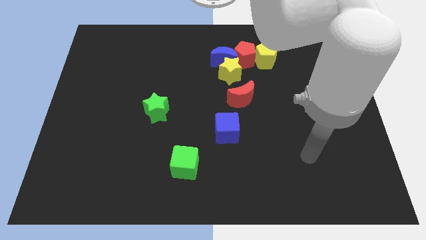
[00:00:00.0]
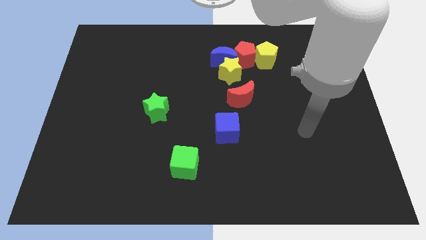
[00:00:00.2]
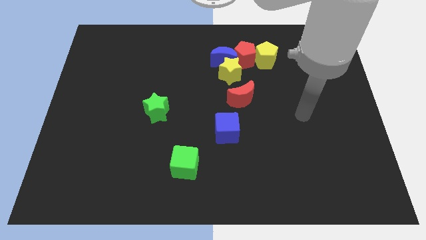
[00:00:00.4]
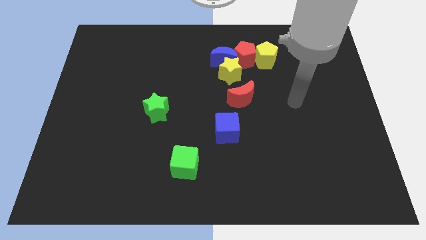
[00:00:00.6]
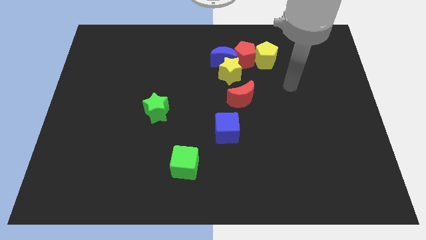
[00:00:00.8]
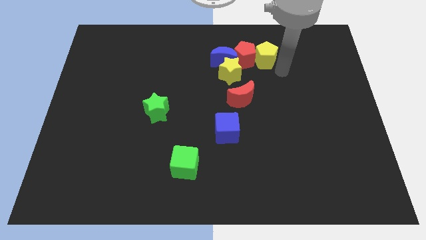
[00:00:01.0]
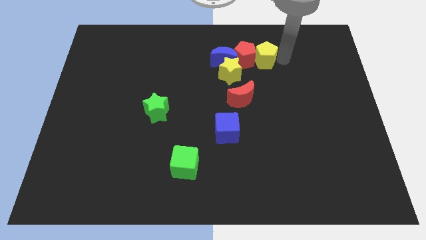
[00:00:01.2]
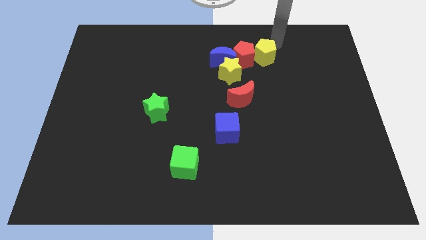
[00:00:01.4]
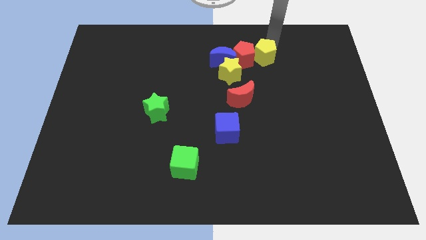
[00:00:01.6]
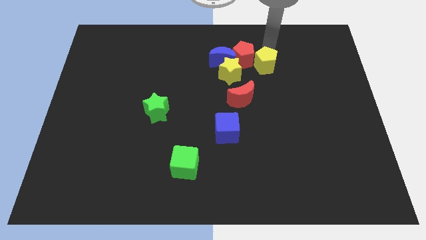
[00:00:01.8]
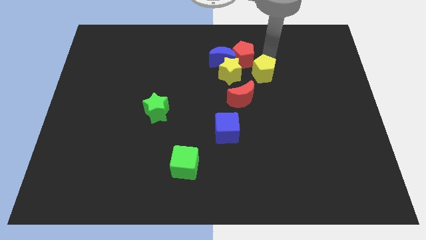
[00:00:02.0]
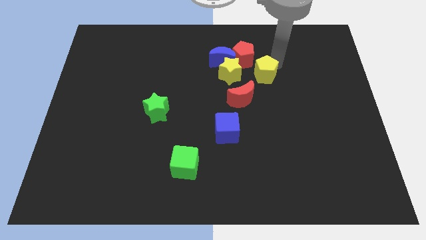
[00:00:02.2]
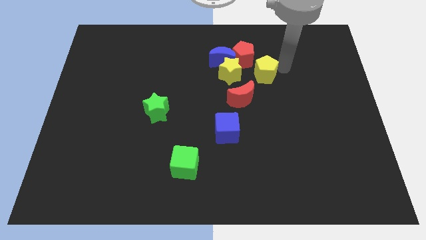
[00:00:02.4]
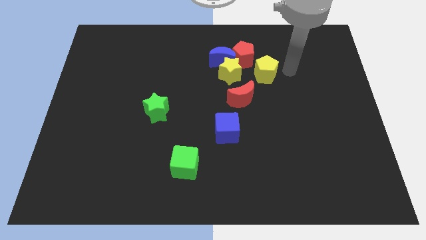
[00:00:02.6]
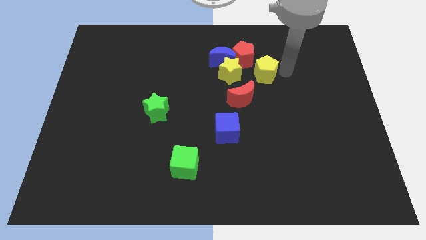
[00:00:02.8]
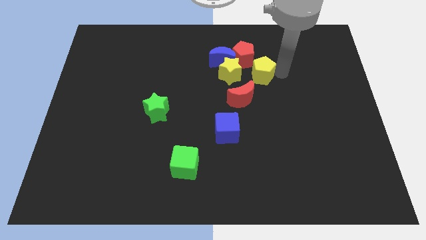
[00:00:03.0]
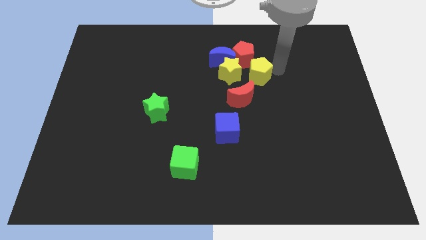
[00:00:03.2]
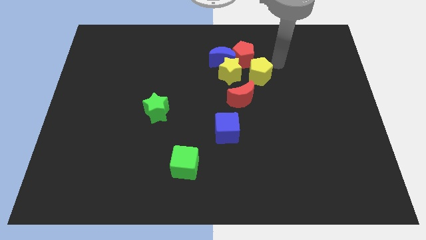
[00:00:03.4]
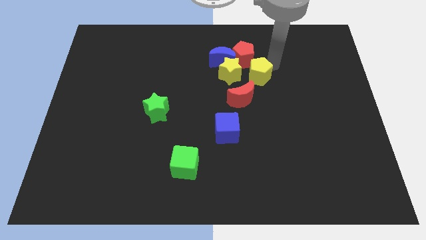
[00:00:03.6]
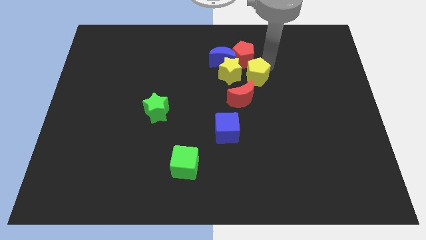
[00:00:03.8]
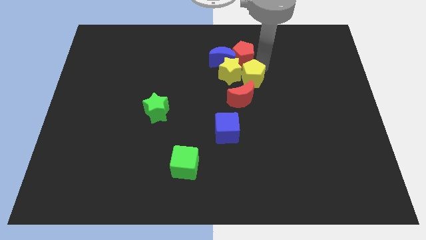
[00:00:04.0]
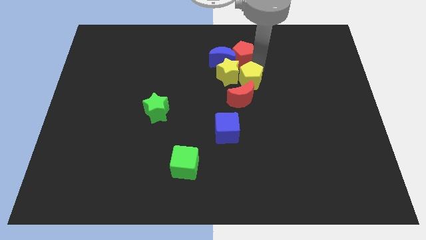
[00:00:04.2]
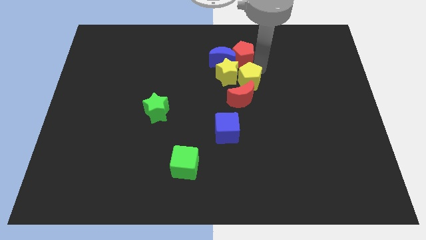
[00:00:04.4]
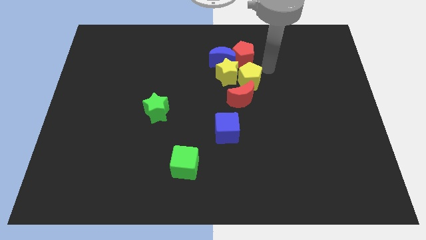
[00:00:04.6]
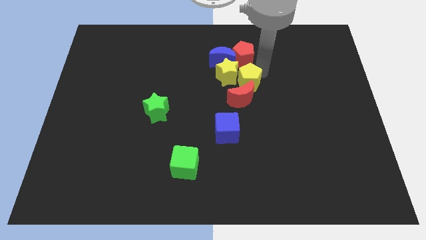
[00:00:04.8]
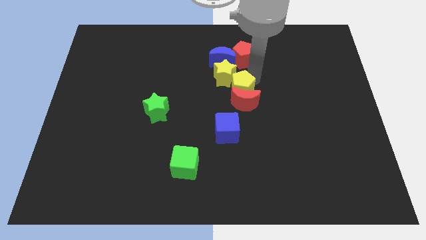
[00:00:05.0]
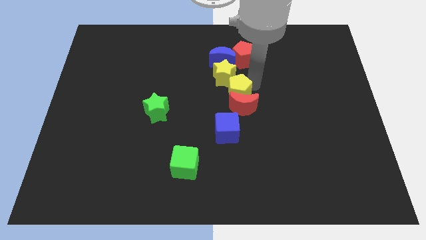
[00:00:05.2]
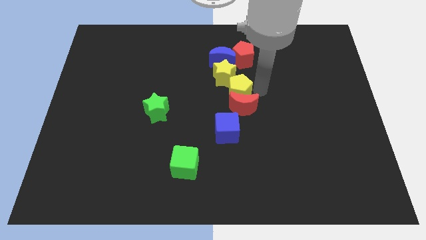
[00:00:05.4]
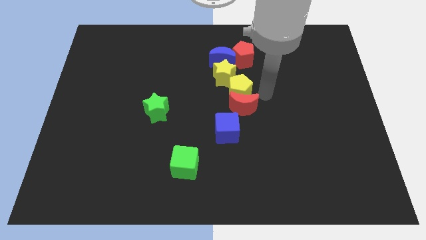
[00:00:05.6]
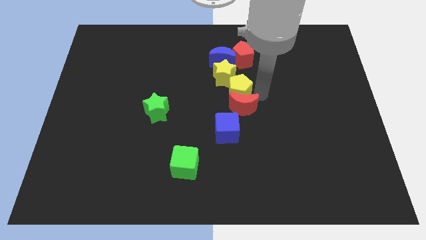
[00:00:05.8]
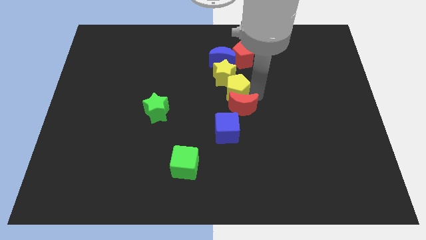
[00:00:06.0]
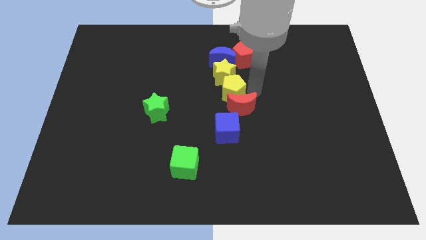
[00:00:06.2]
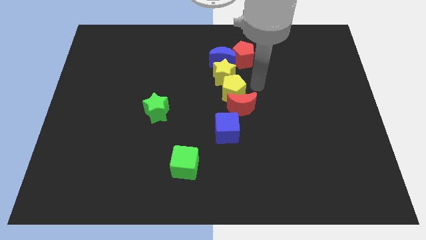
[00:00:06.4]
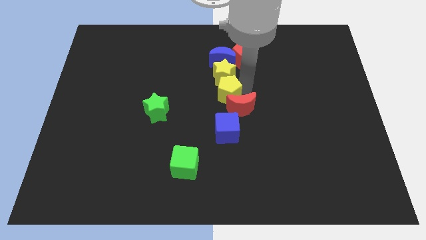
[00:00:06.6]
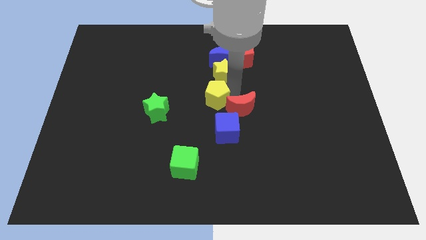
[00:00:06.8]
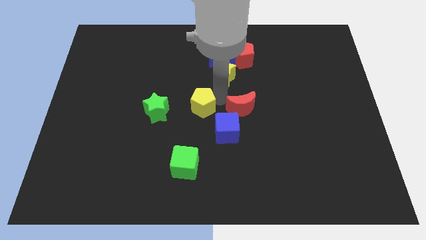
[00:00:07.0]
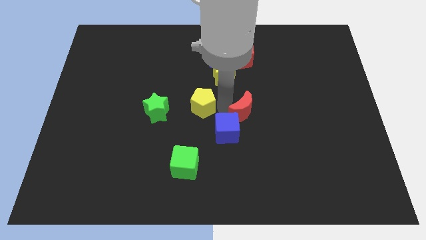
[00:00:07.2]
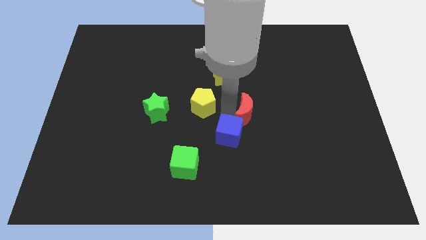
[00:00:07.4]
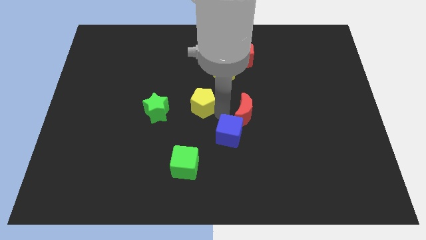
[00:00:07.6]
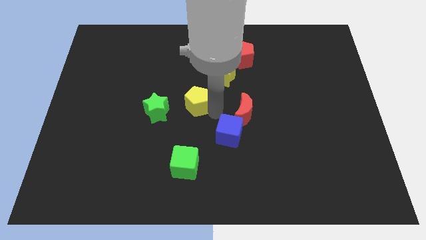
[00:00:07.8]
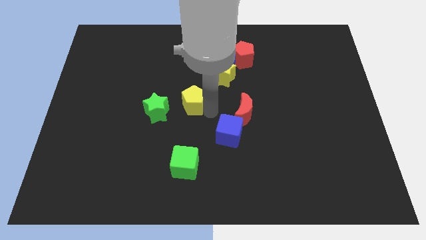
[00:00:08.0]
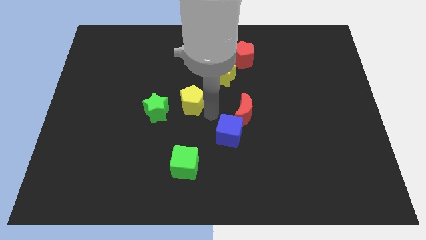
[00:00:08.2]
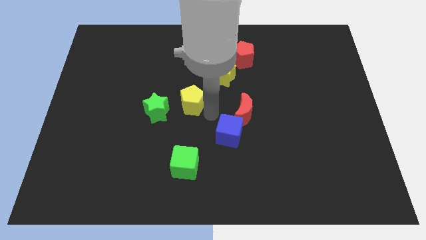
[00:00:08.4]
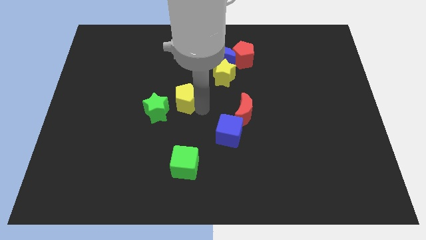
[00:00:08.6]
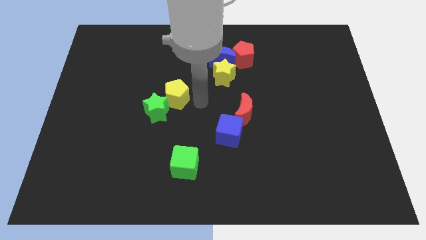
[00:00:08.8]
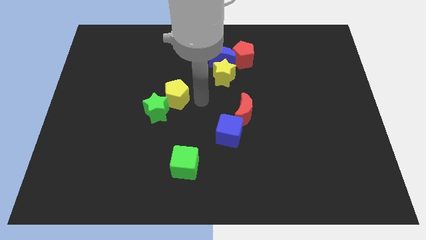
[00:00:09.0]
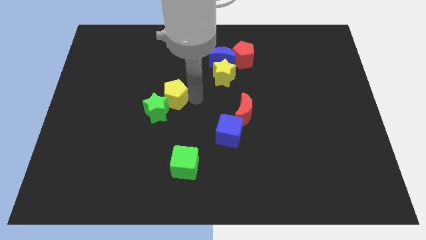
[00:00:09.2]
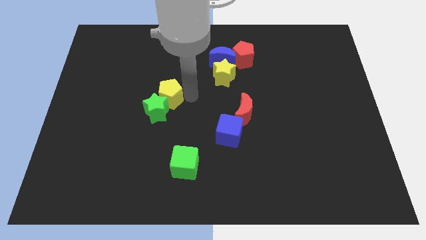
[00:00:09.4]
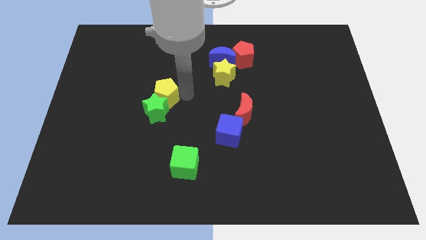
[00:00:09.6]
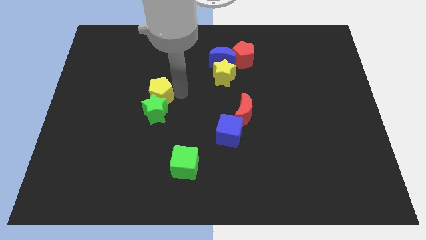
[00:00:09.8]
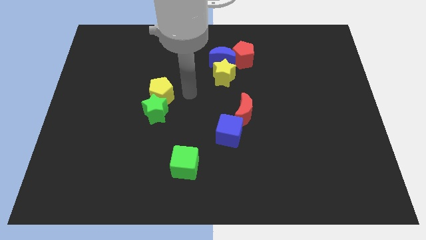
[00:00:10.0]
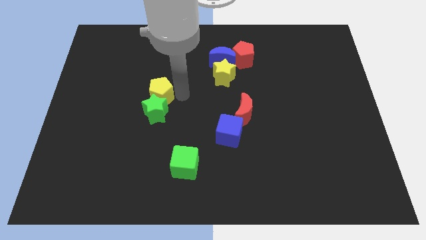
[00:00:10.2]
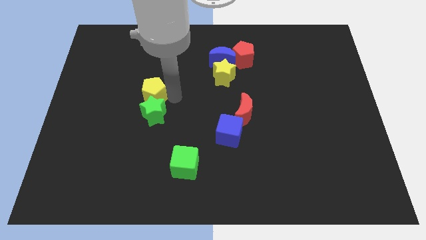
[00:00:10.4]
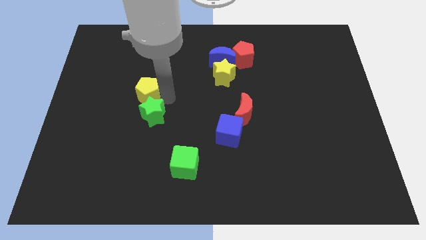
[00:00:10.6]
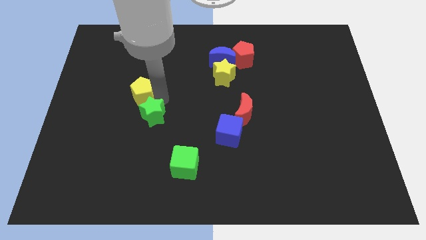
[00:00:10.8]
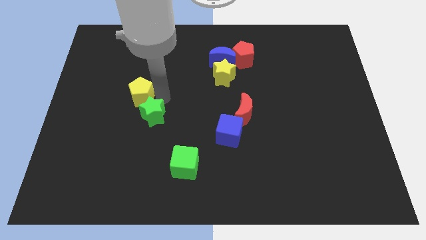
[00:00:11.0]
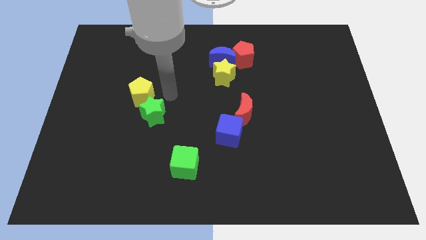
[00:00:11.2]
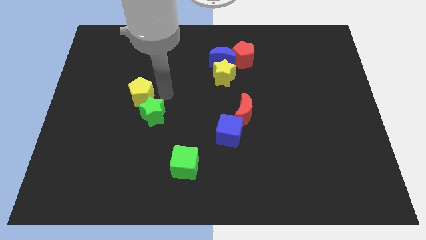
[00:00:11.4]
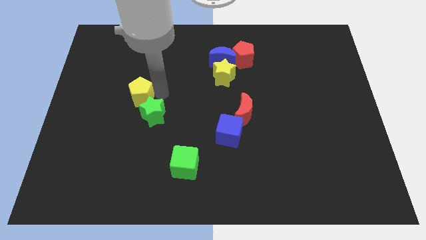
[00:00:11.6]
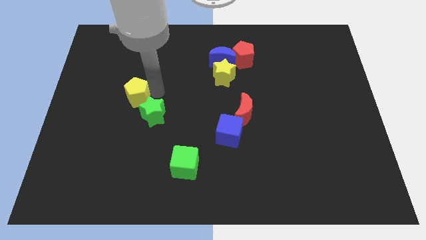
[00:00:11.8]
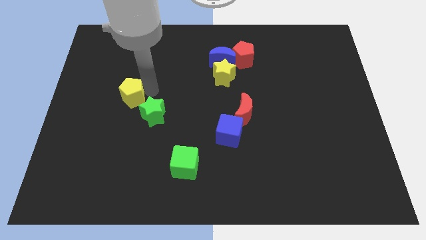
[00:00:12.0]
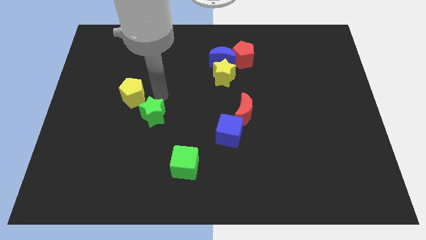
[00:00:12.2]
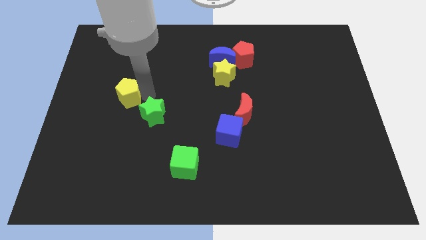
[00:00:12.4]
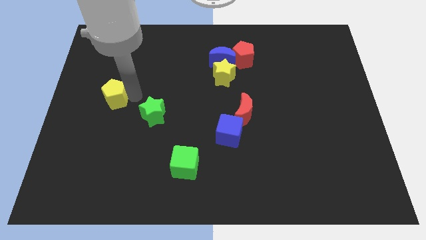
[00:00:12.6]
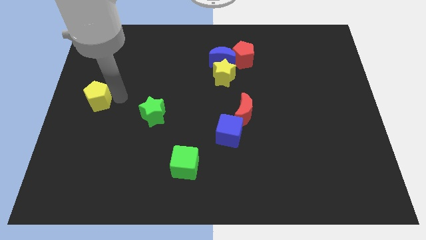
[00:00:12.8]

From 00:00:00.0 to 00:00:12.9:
push the yellow pentagon to the left side of the board
